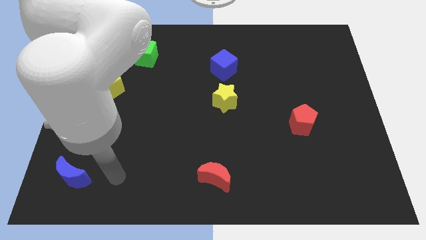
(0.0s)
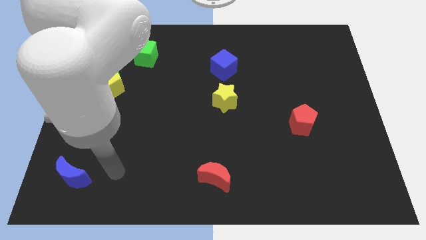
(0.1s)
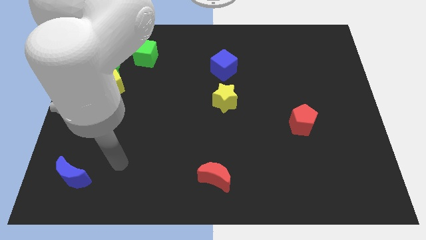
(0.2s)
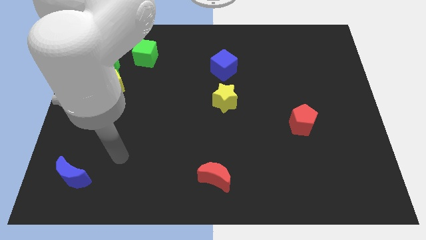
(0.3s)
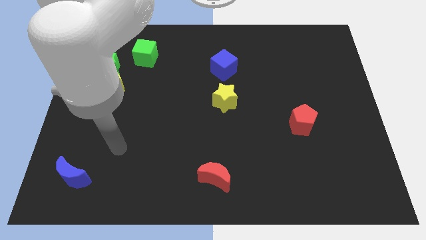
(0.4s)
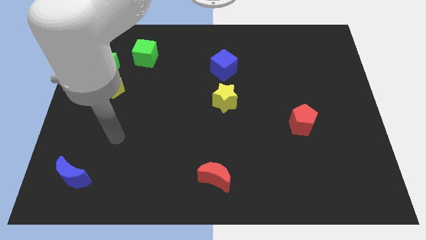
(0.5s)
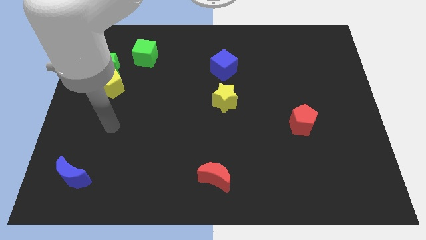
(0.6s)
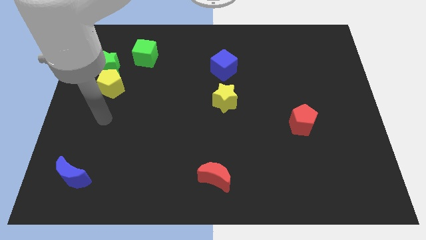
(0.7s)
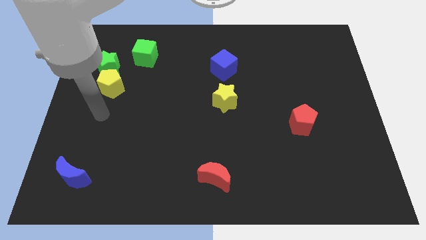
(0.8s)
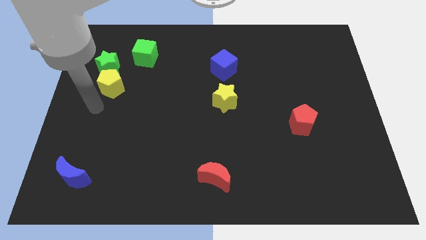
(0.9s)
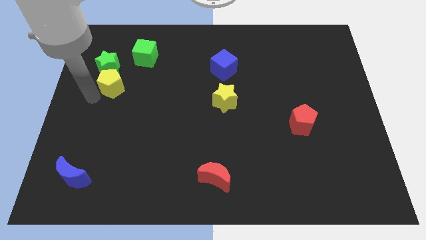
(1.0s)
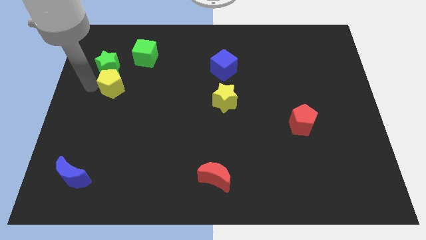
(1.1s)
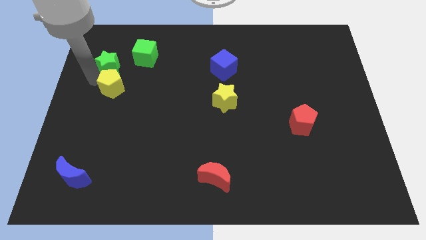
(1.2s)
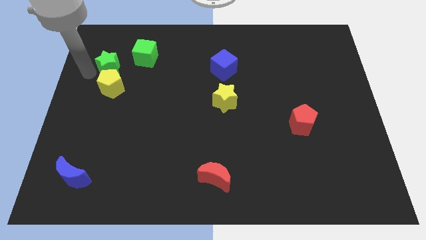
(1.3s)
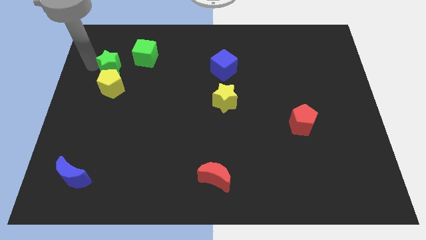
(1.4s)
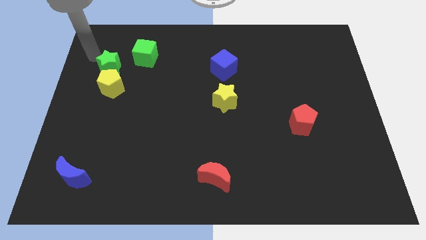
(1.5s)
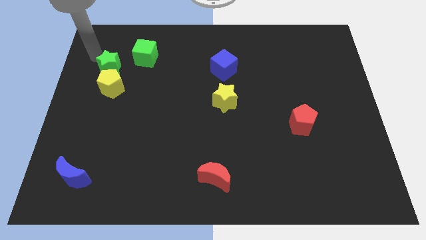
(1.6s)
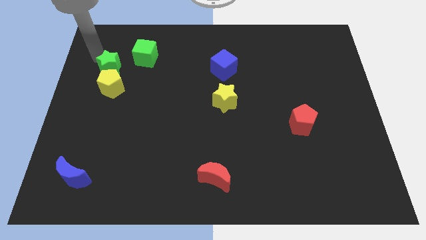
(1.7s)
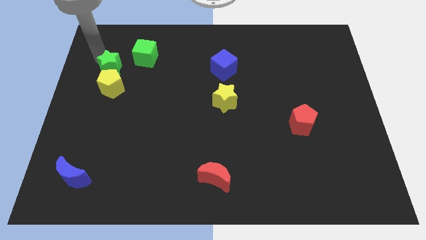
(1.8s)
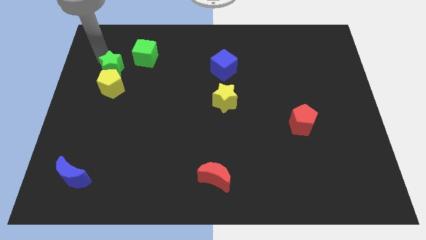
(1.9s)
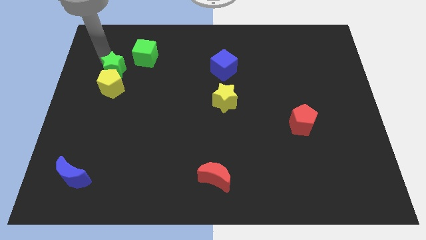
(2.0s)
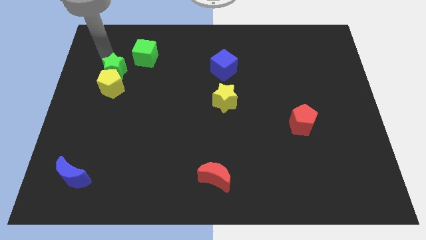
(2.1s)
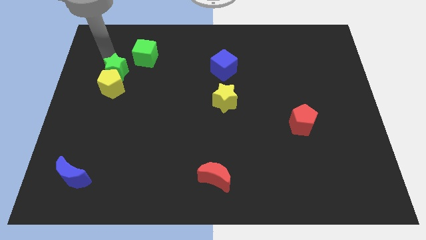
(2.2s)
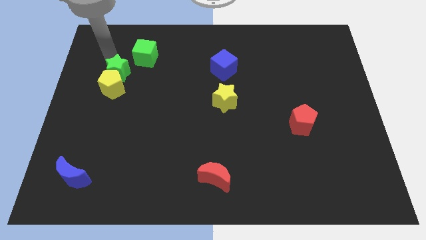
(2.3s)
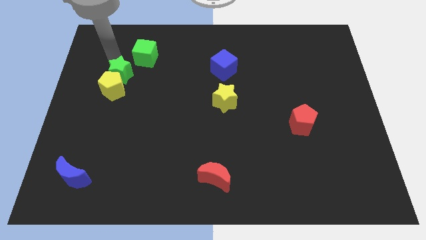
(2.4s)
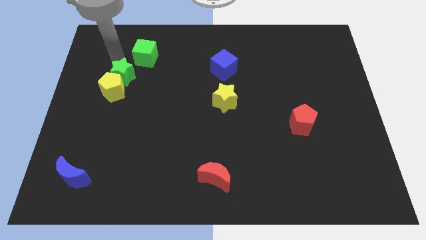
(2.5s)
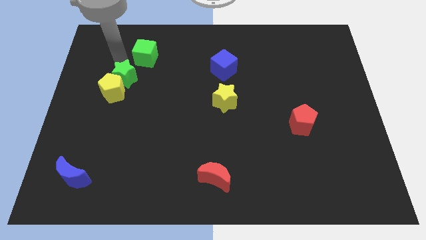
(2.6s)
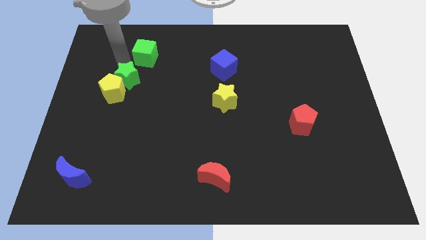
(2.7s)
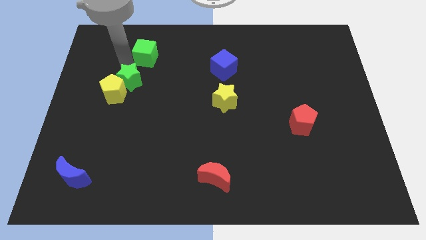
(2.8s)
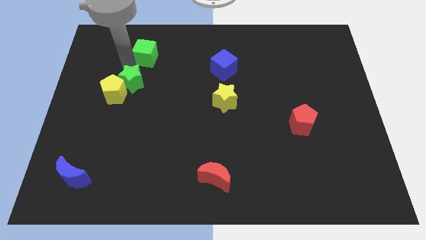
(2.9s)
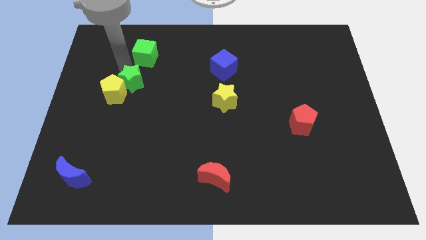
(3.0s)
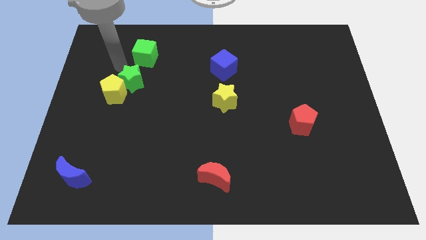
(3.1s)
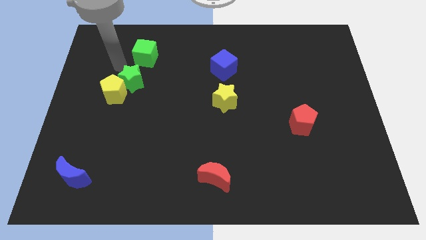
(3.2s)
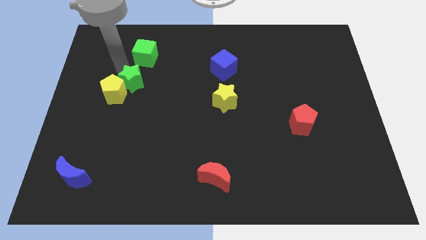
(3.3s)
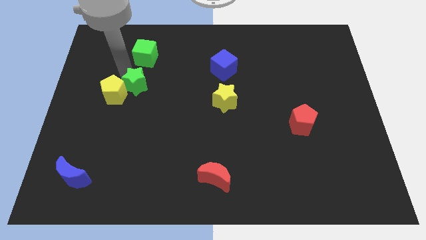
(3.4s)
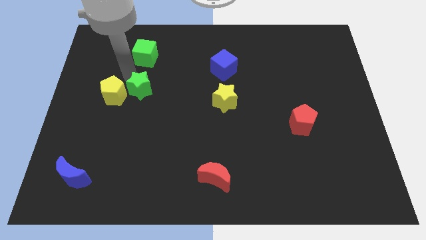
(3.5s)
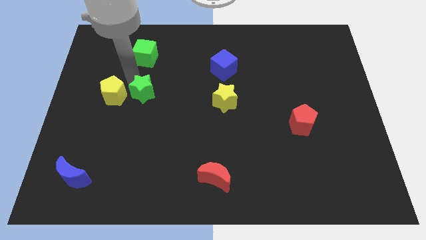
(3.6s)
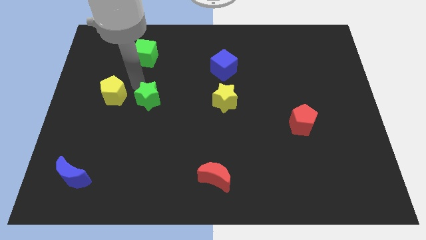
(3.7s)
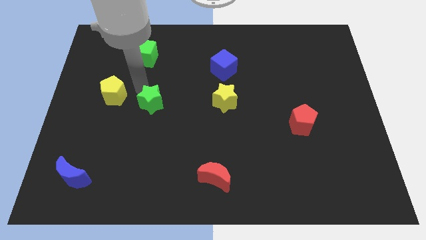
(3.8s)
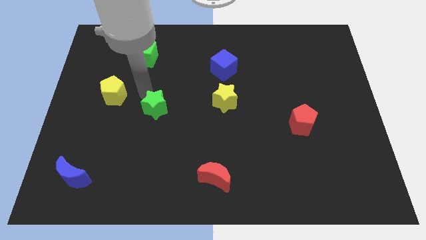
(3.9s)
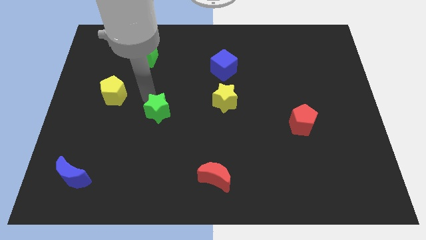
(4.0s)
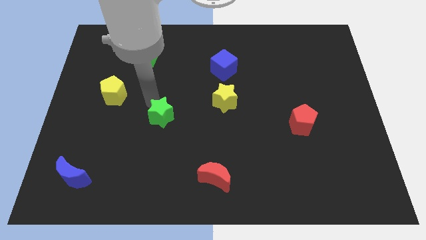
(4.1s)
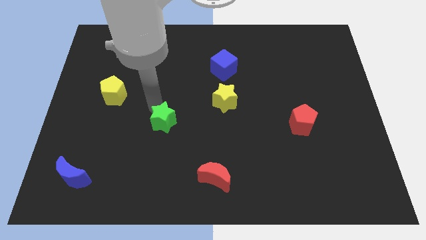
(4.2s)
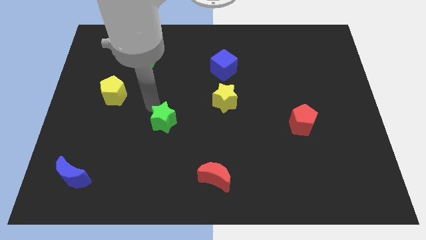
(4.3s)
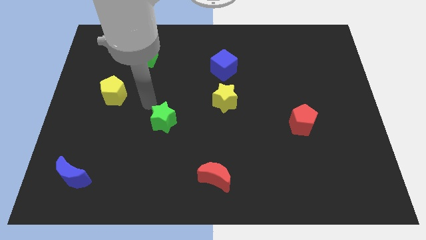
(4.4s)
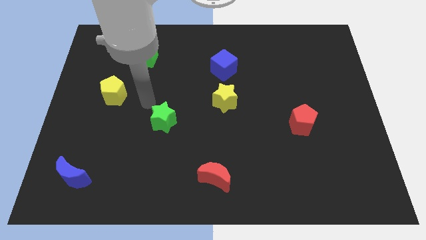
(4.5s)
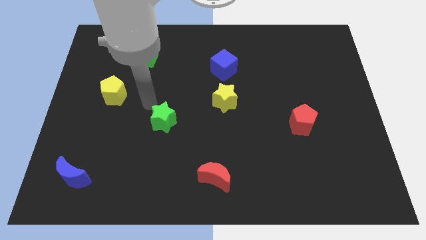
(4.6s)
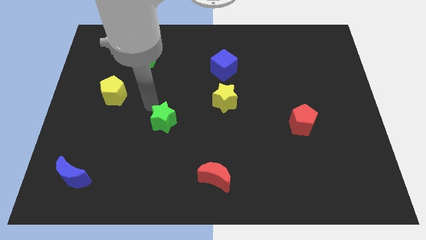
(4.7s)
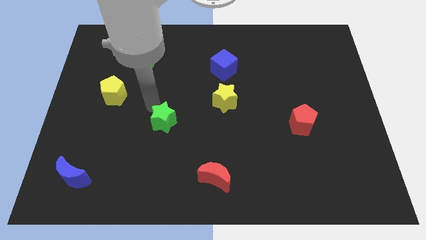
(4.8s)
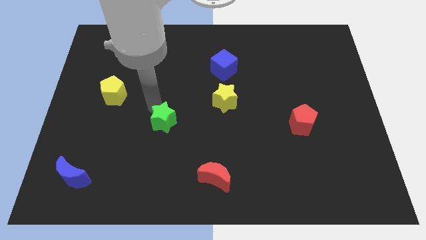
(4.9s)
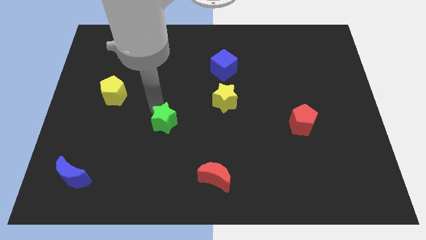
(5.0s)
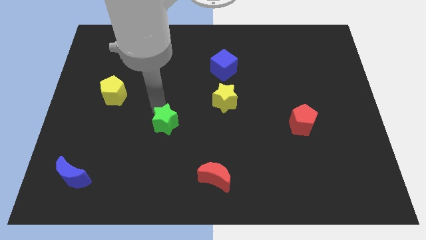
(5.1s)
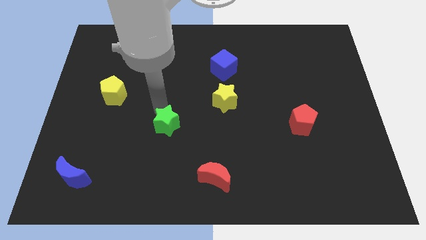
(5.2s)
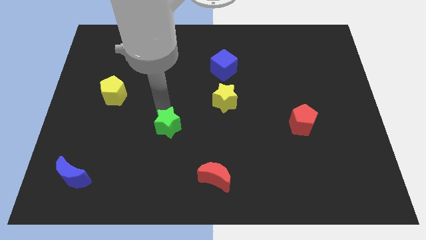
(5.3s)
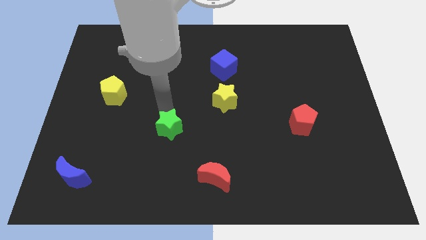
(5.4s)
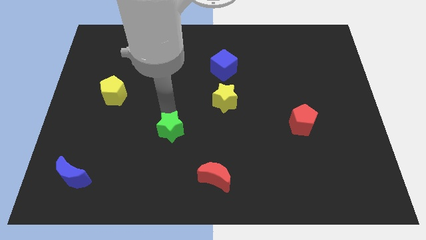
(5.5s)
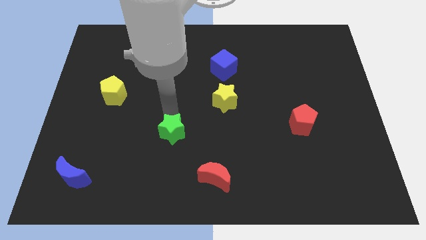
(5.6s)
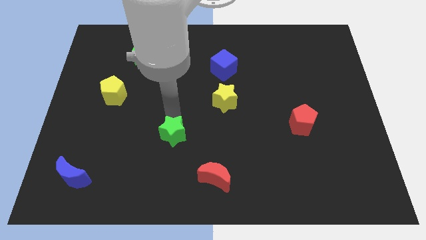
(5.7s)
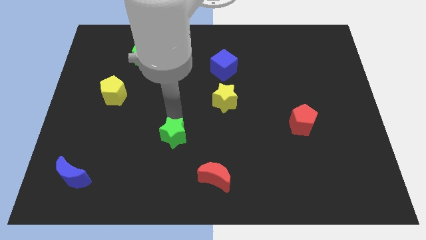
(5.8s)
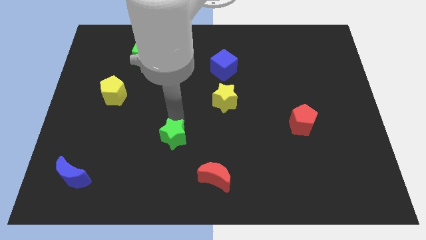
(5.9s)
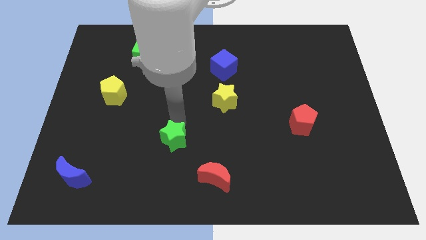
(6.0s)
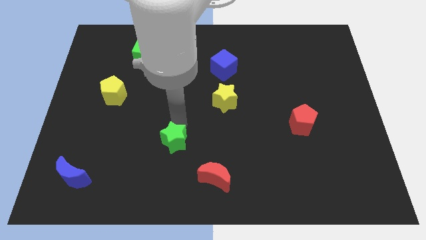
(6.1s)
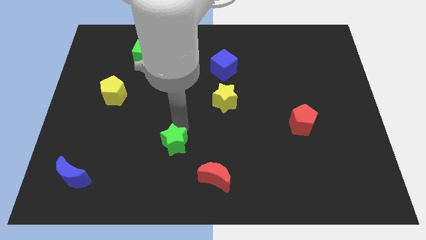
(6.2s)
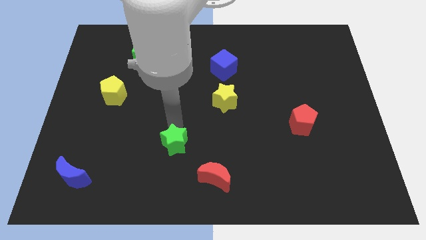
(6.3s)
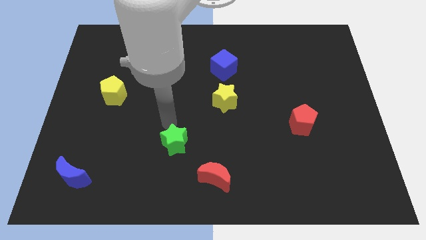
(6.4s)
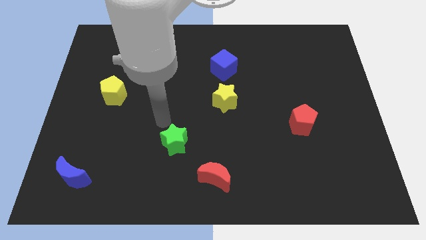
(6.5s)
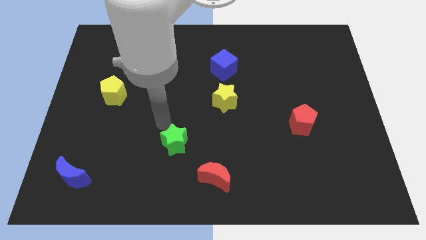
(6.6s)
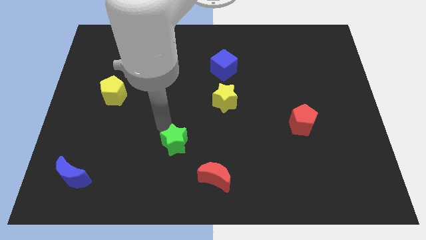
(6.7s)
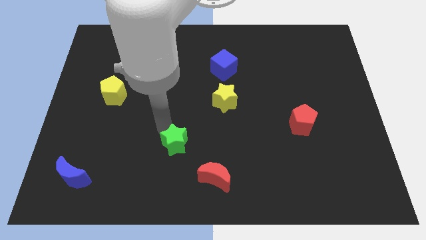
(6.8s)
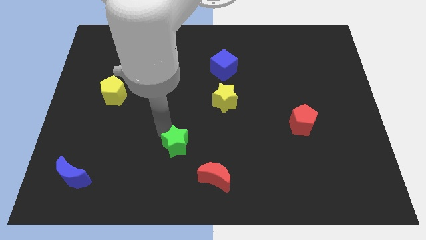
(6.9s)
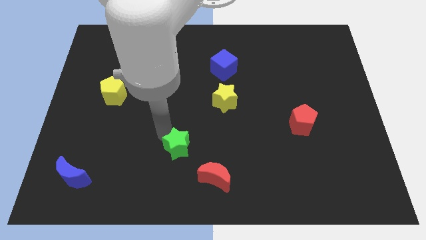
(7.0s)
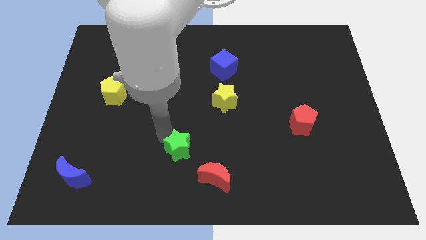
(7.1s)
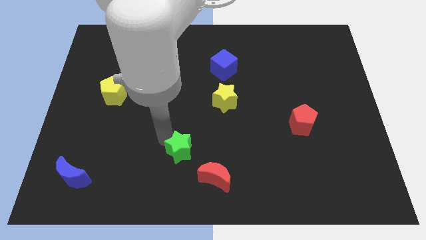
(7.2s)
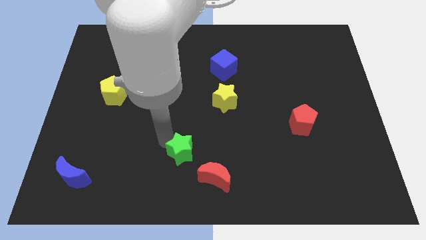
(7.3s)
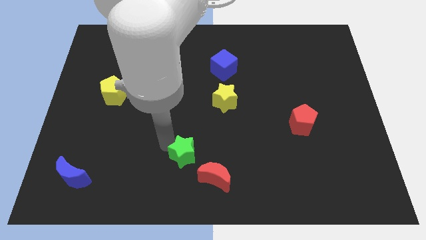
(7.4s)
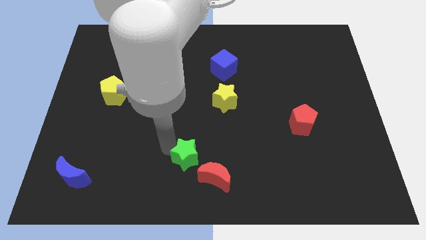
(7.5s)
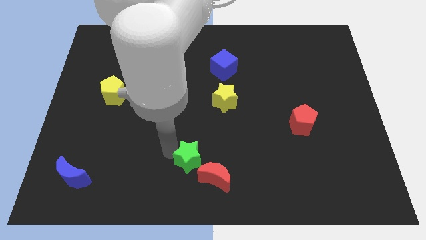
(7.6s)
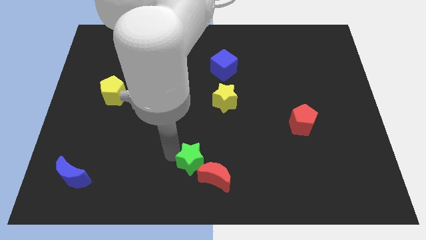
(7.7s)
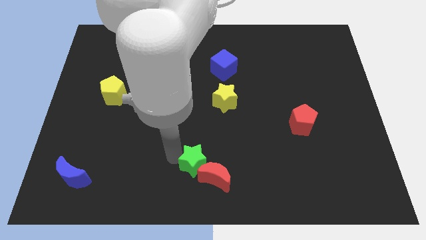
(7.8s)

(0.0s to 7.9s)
push the green star next to the red moon
